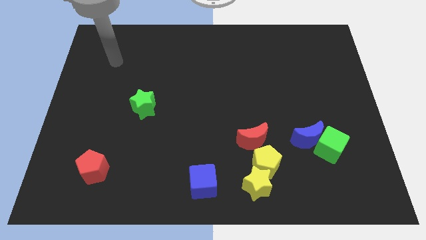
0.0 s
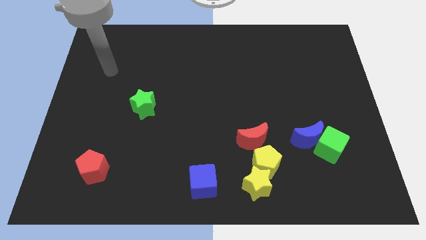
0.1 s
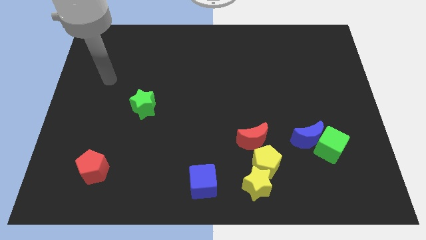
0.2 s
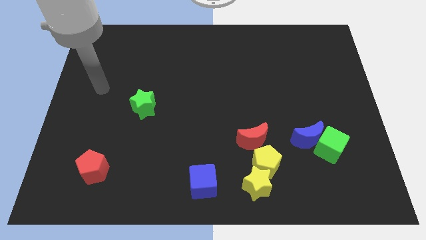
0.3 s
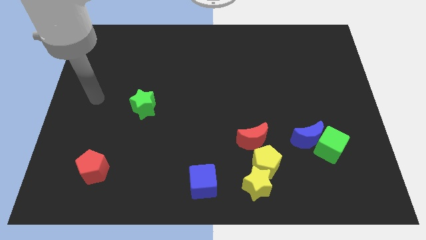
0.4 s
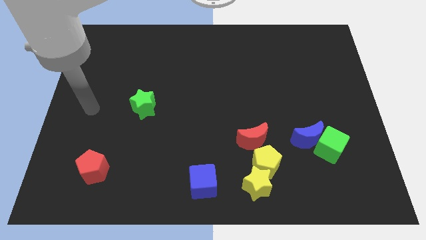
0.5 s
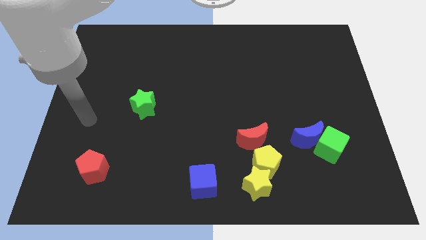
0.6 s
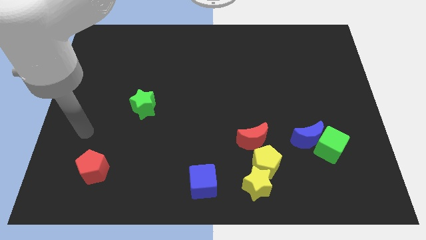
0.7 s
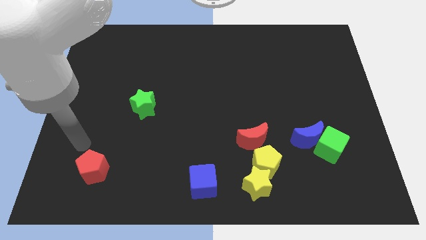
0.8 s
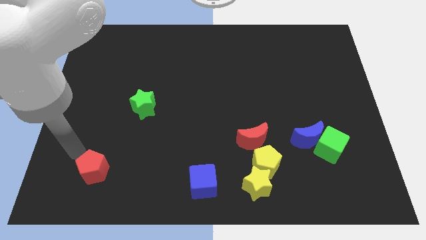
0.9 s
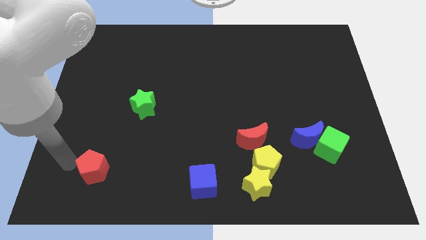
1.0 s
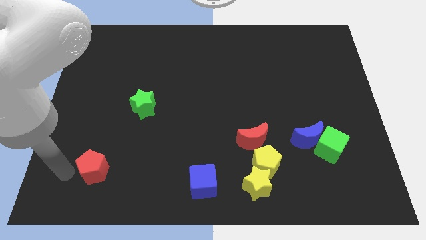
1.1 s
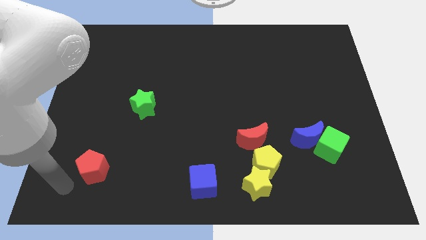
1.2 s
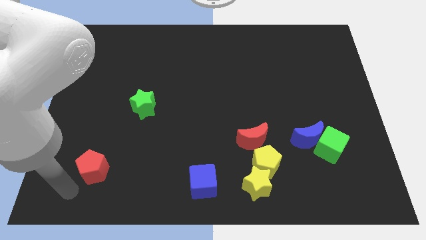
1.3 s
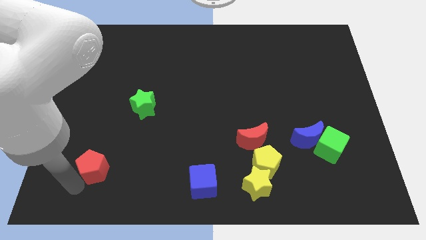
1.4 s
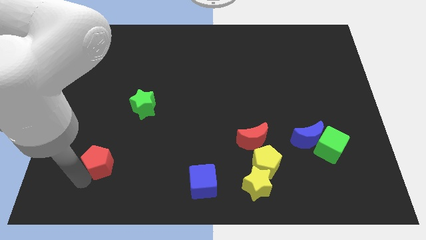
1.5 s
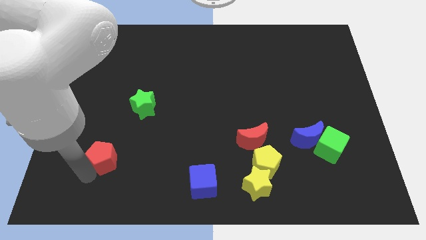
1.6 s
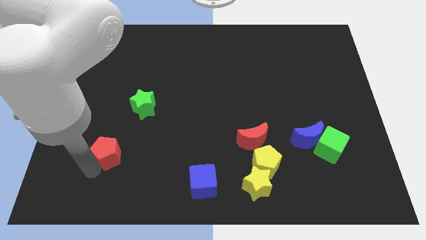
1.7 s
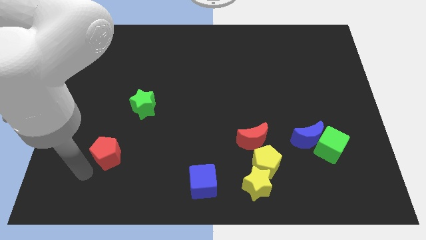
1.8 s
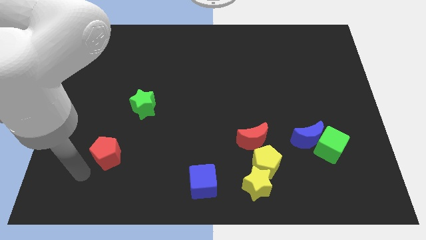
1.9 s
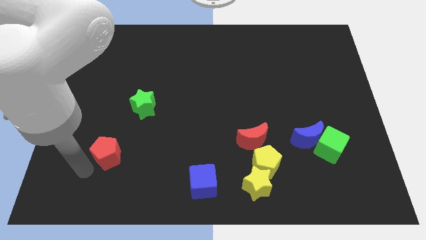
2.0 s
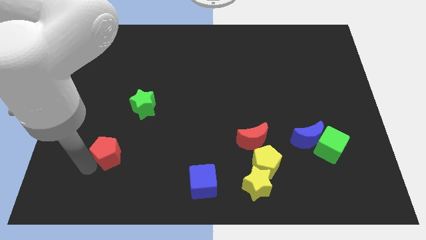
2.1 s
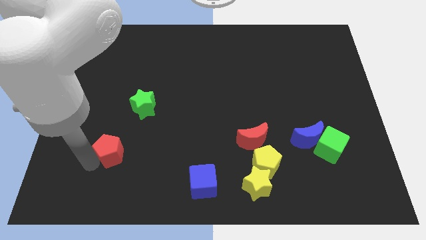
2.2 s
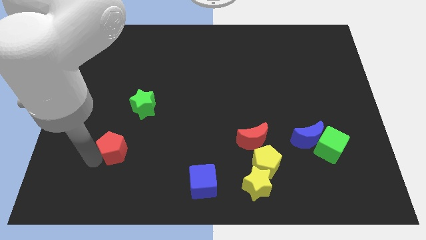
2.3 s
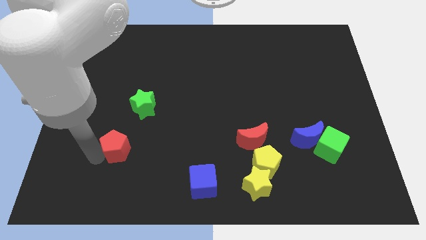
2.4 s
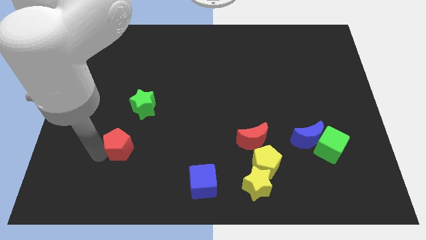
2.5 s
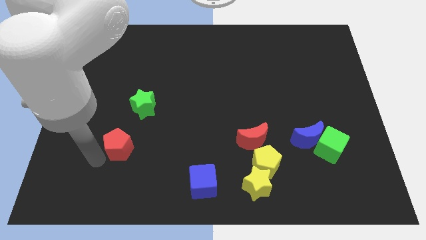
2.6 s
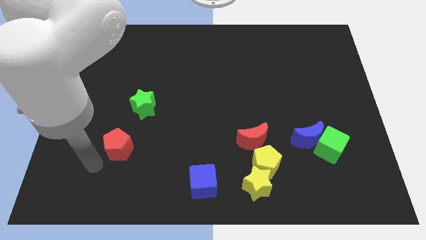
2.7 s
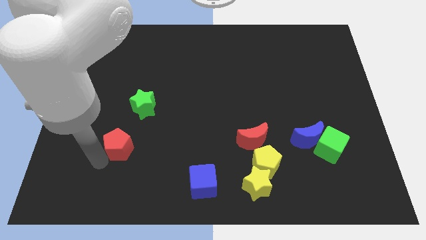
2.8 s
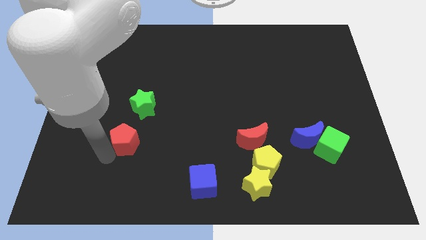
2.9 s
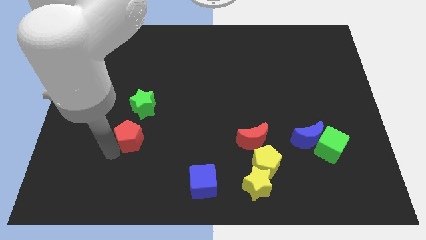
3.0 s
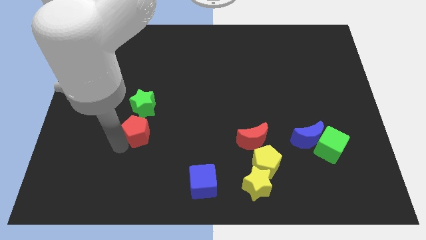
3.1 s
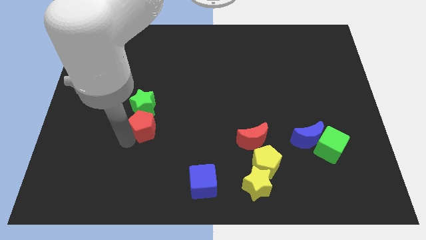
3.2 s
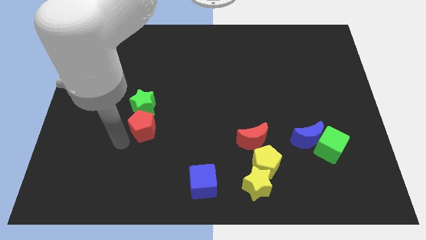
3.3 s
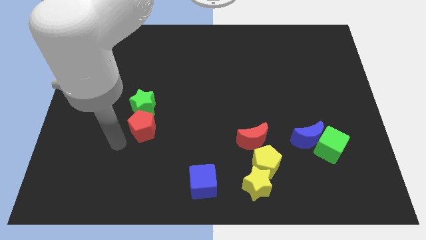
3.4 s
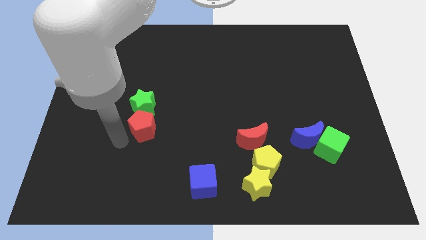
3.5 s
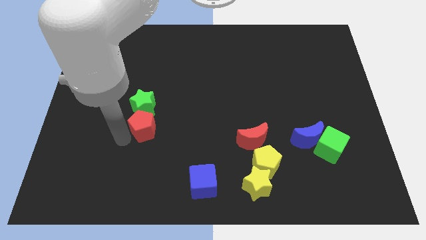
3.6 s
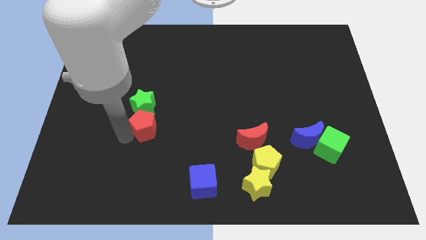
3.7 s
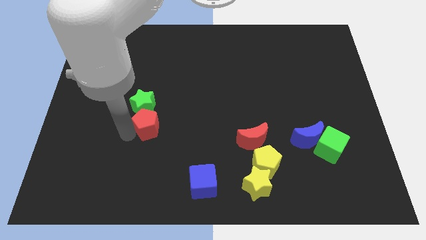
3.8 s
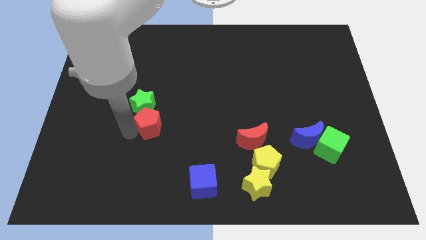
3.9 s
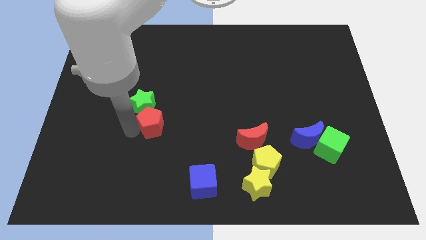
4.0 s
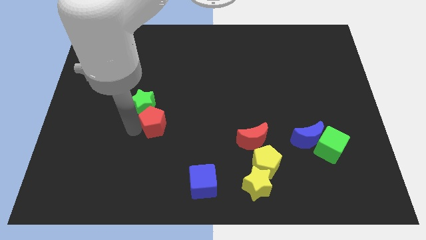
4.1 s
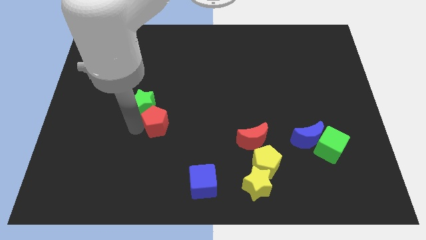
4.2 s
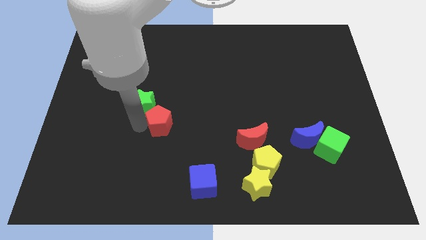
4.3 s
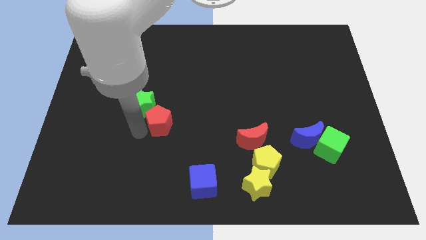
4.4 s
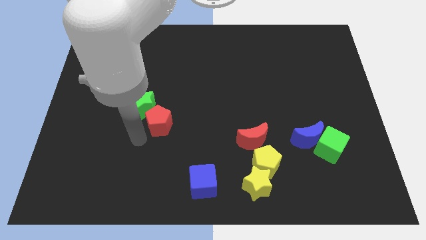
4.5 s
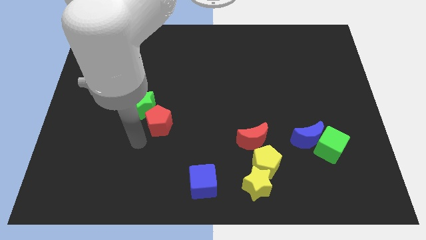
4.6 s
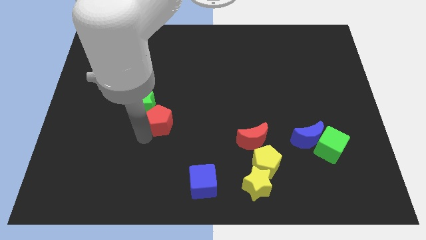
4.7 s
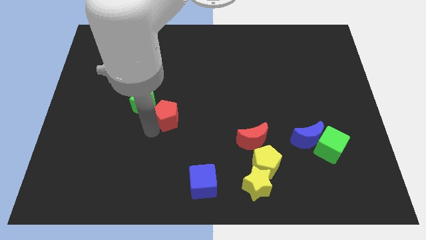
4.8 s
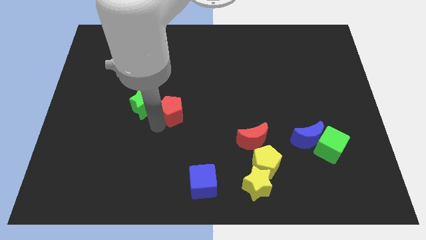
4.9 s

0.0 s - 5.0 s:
push the red pentagon diagonally up and right

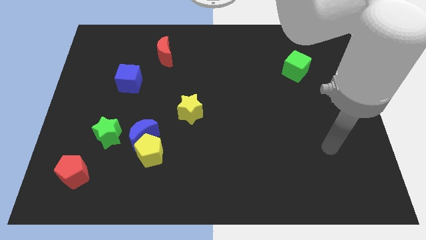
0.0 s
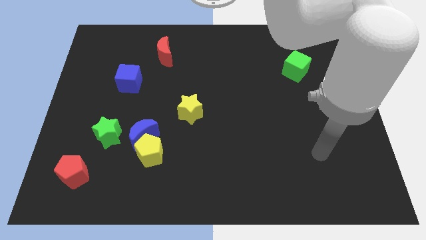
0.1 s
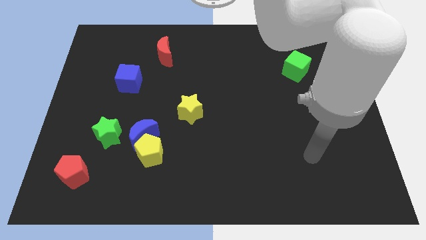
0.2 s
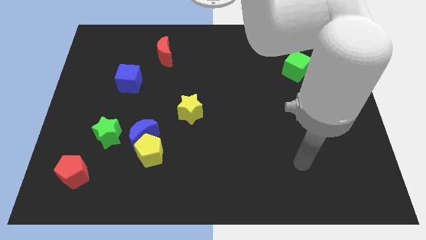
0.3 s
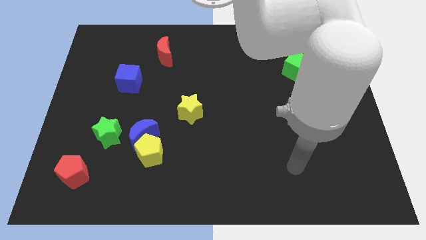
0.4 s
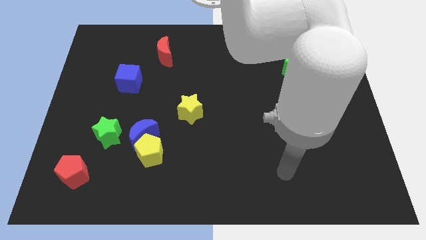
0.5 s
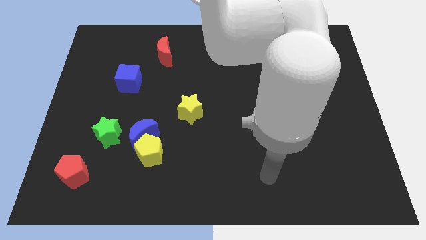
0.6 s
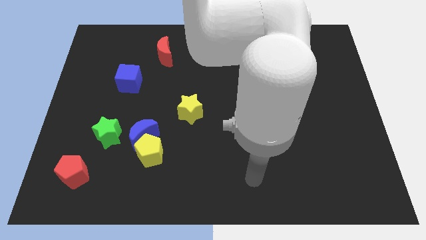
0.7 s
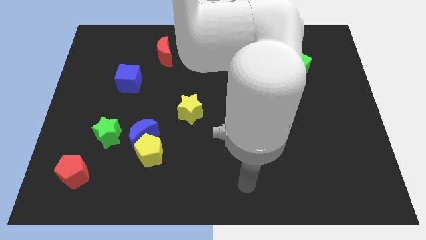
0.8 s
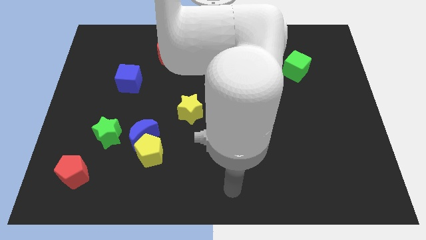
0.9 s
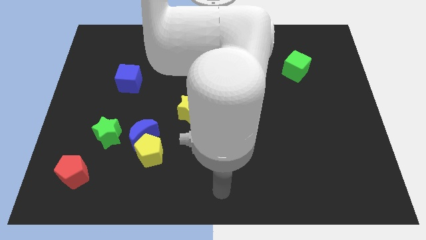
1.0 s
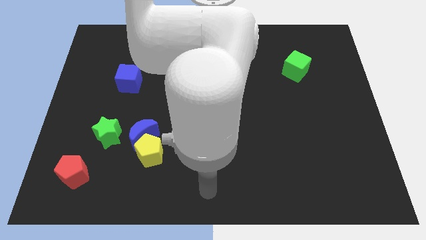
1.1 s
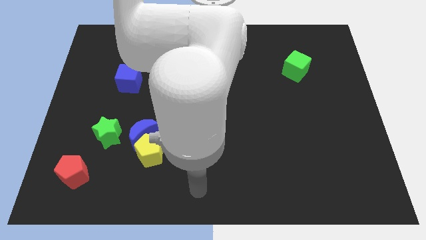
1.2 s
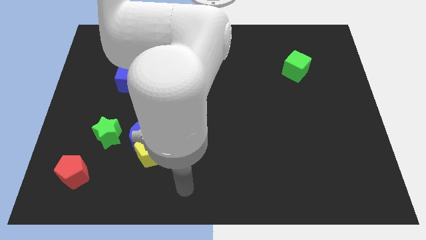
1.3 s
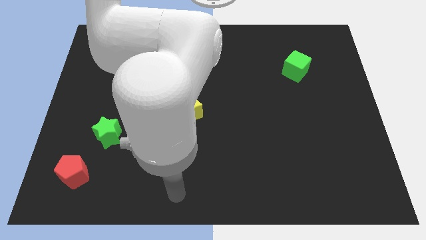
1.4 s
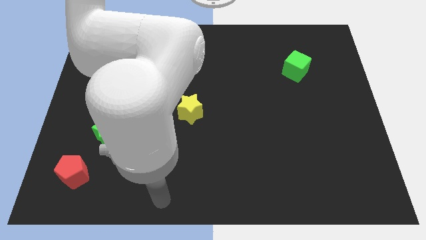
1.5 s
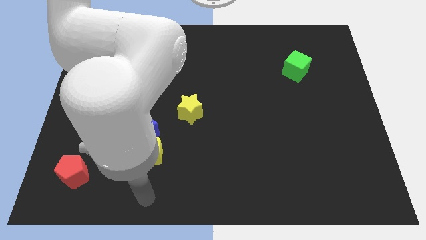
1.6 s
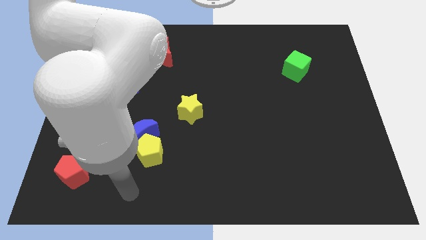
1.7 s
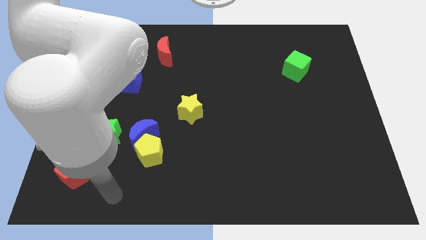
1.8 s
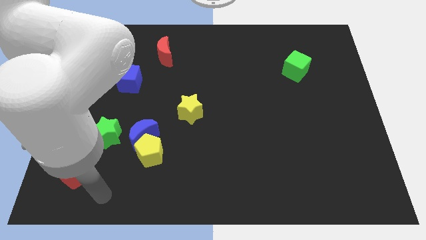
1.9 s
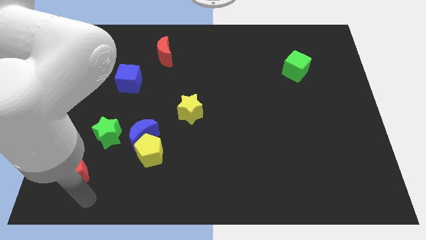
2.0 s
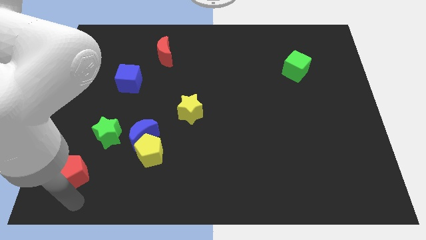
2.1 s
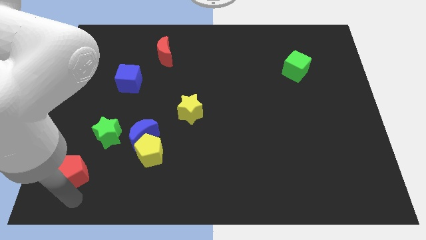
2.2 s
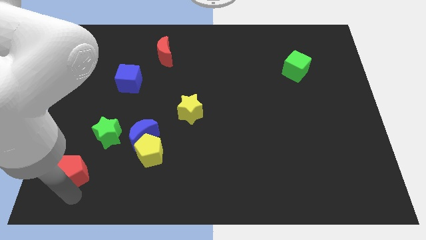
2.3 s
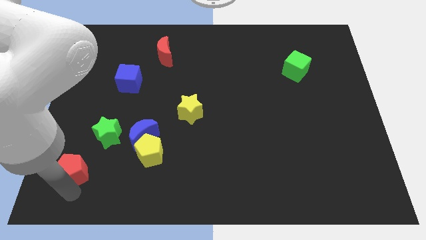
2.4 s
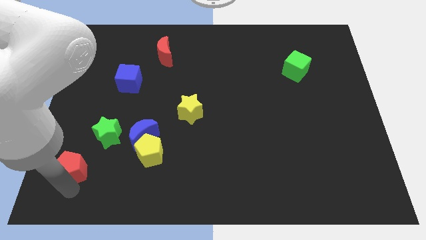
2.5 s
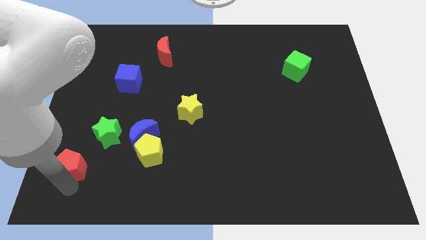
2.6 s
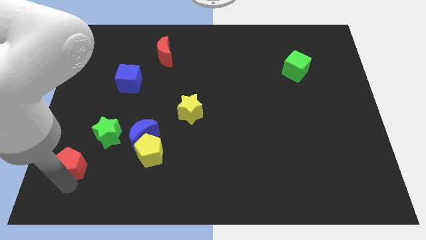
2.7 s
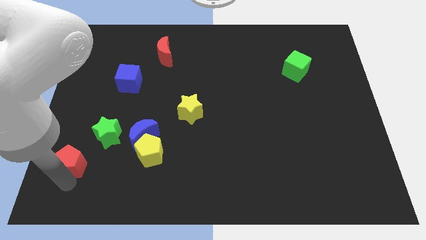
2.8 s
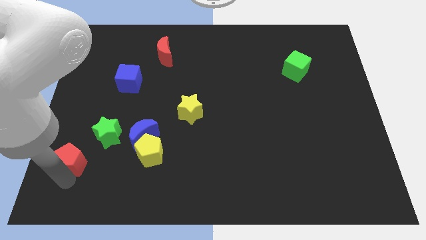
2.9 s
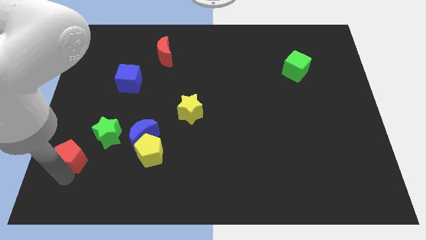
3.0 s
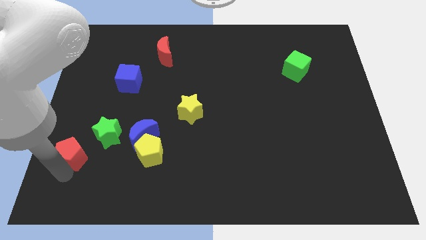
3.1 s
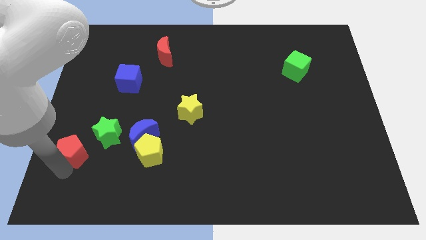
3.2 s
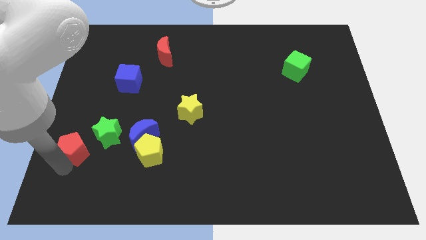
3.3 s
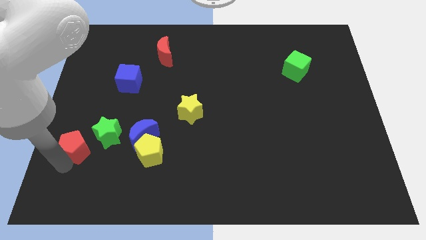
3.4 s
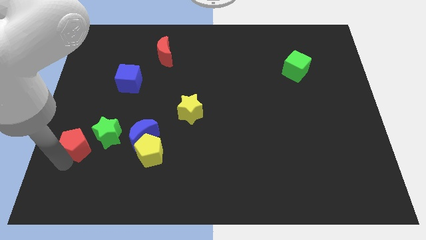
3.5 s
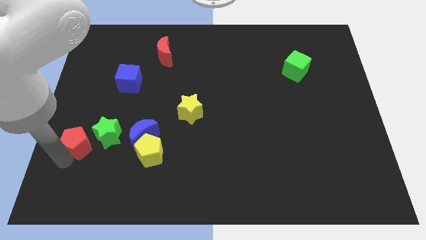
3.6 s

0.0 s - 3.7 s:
slide the red pentagon up a little bit
